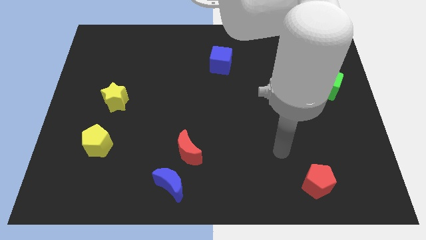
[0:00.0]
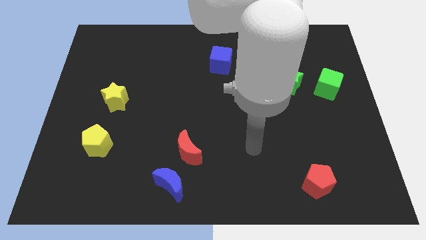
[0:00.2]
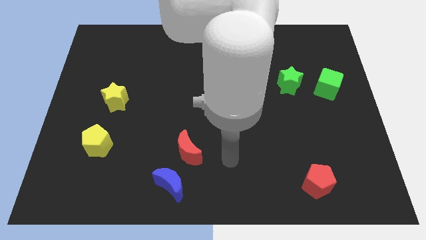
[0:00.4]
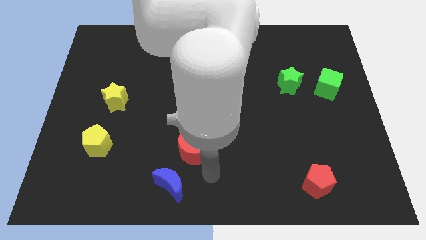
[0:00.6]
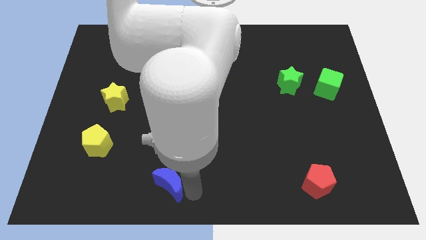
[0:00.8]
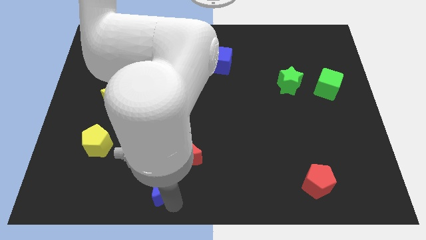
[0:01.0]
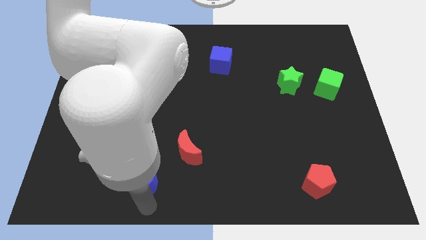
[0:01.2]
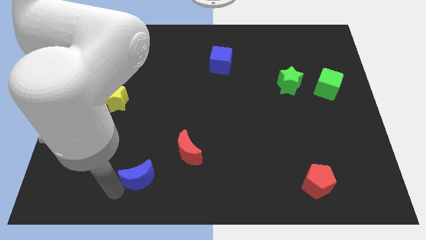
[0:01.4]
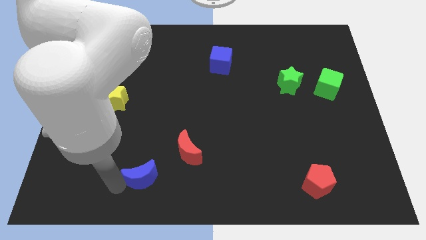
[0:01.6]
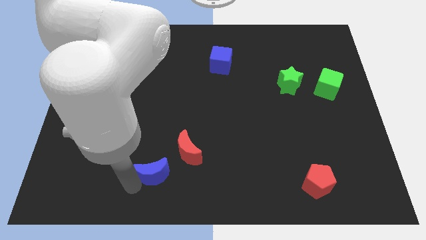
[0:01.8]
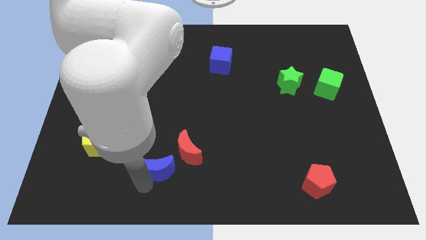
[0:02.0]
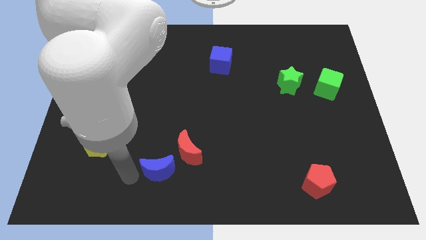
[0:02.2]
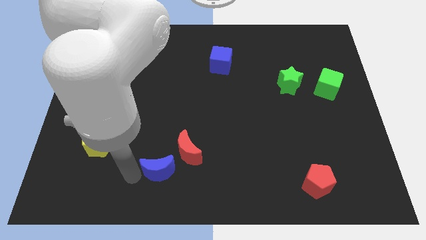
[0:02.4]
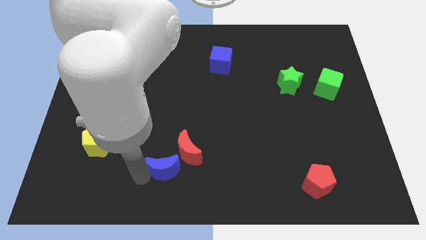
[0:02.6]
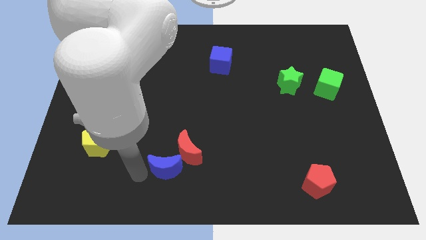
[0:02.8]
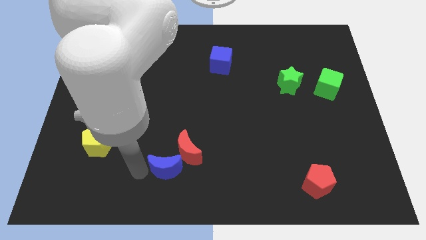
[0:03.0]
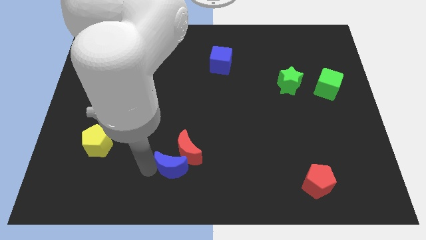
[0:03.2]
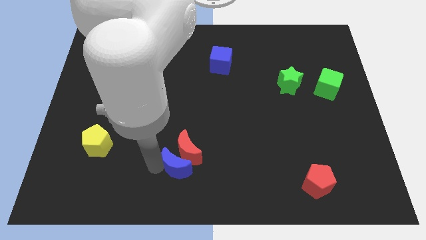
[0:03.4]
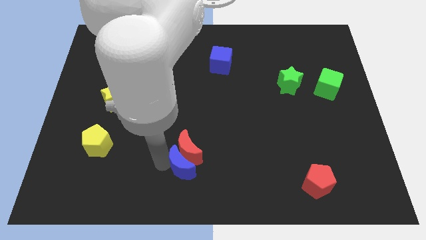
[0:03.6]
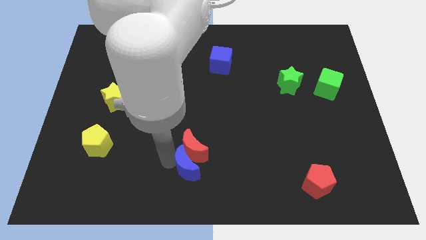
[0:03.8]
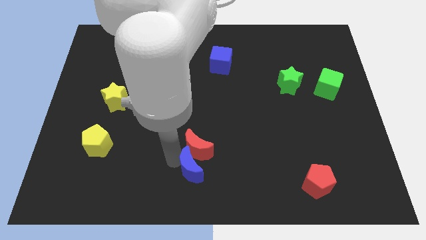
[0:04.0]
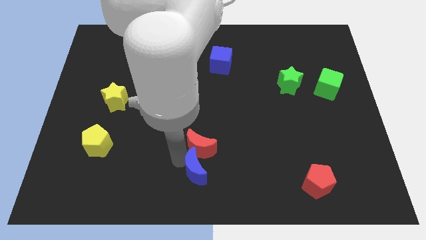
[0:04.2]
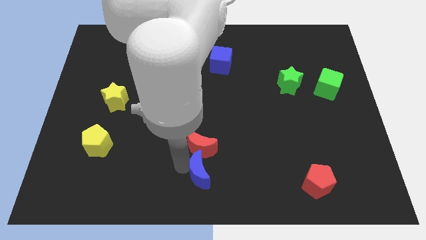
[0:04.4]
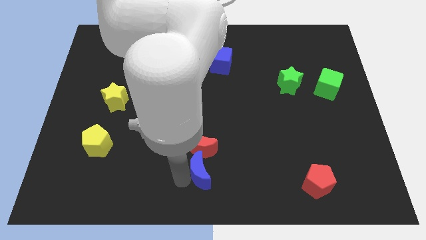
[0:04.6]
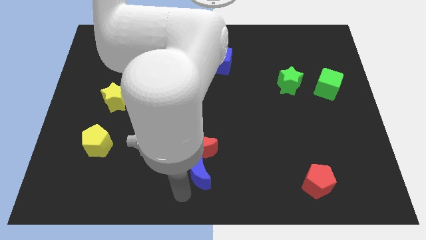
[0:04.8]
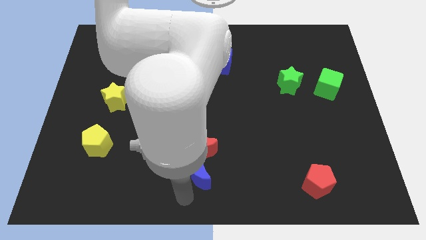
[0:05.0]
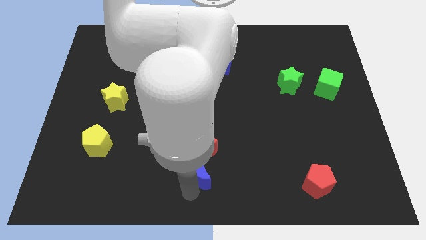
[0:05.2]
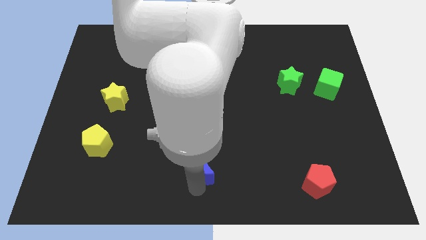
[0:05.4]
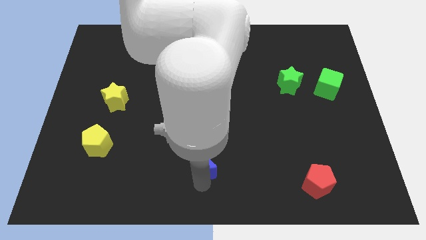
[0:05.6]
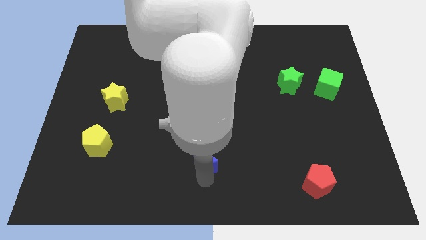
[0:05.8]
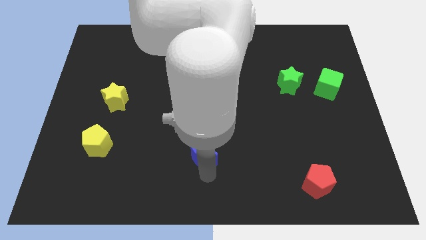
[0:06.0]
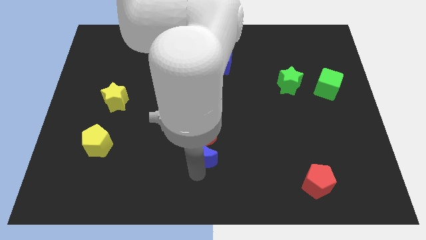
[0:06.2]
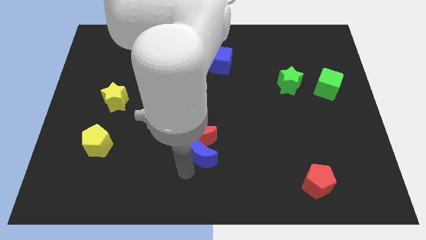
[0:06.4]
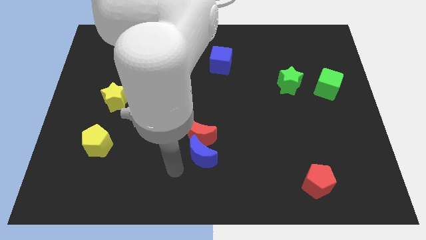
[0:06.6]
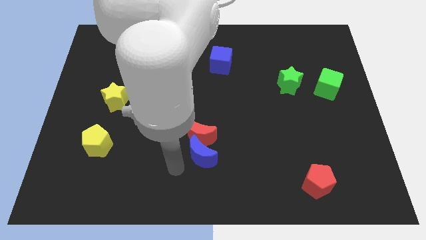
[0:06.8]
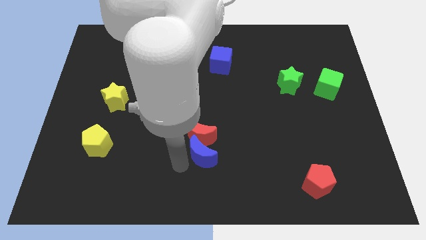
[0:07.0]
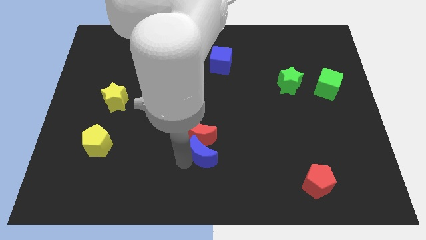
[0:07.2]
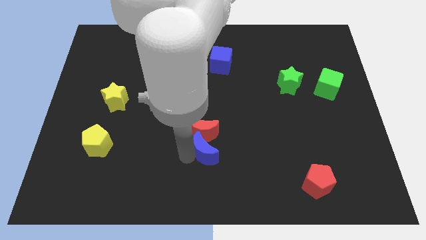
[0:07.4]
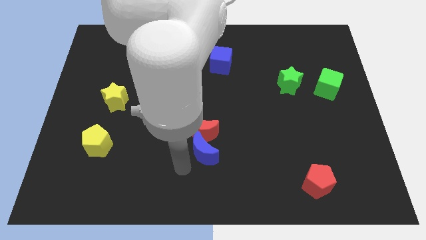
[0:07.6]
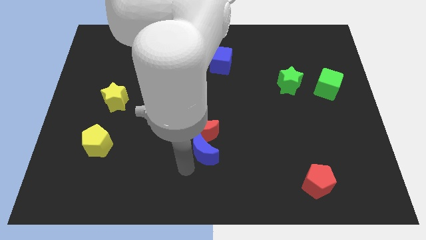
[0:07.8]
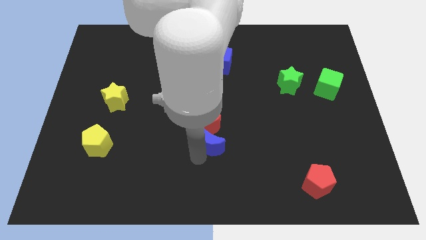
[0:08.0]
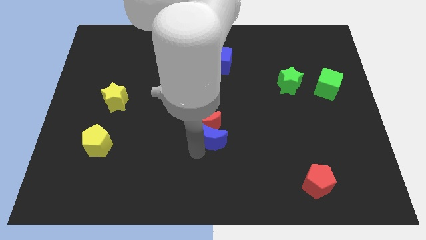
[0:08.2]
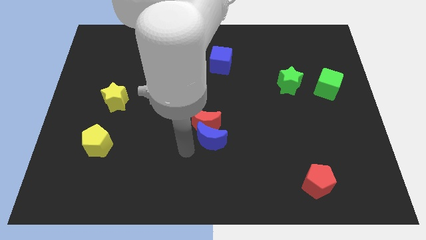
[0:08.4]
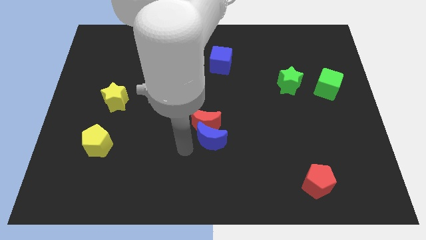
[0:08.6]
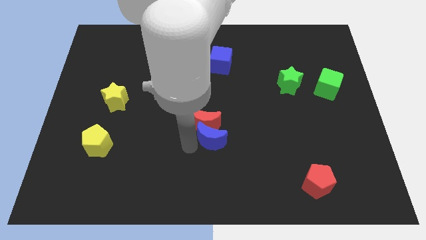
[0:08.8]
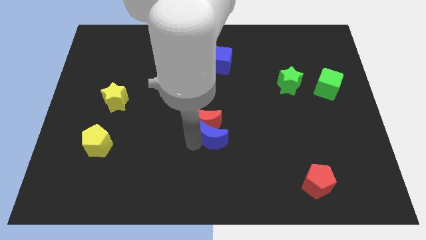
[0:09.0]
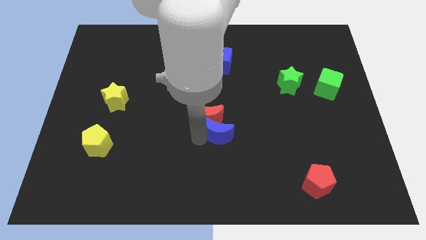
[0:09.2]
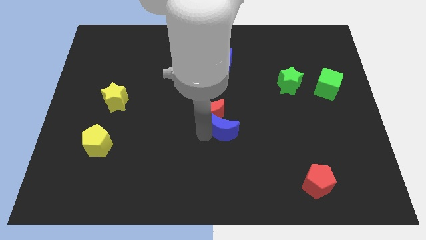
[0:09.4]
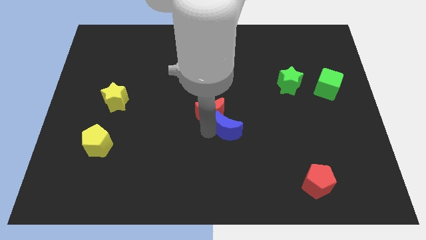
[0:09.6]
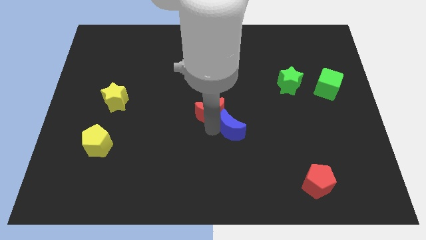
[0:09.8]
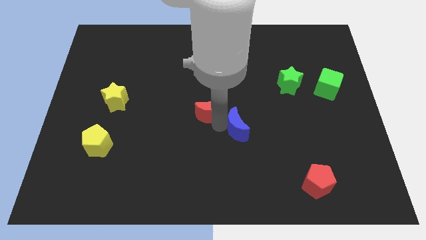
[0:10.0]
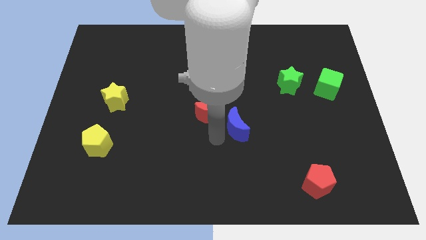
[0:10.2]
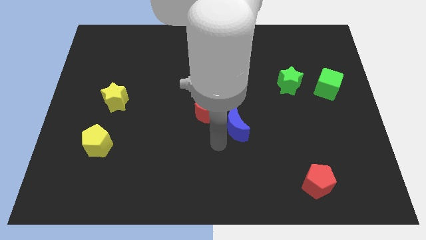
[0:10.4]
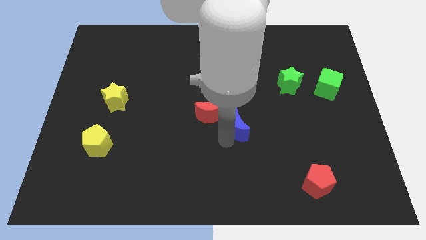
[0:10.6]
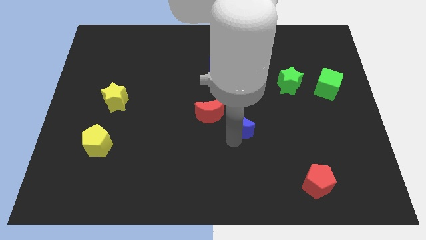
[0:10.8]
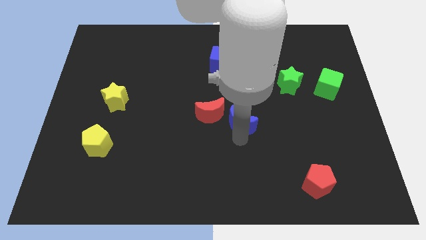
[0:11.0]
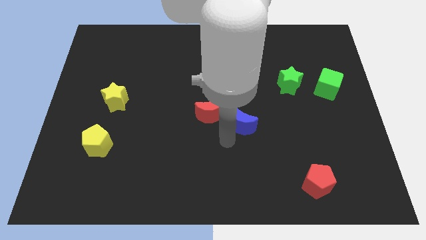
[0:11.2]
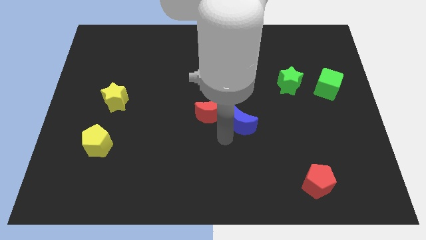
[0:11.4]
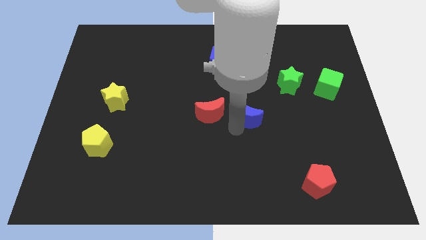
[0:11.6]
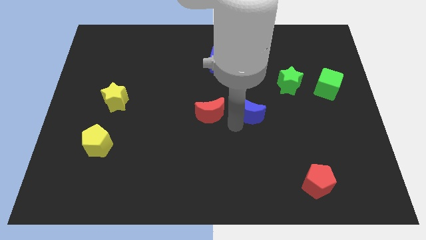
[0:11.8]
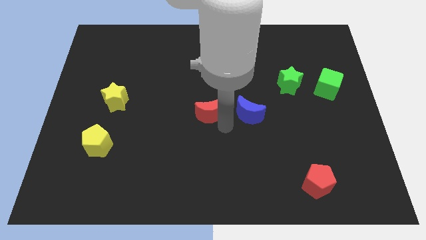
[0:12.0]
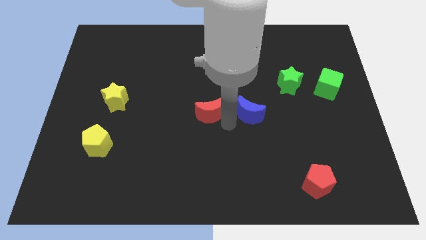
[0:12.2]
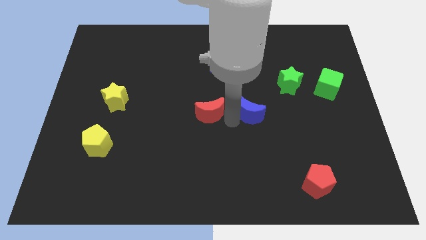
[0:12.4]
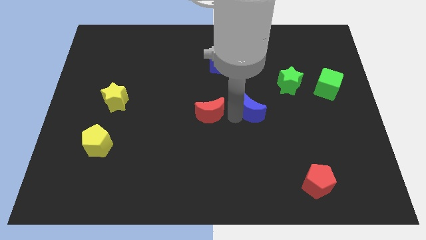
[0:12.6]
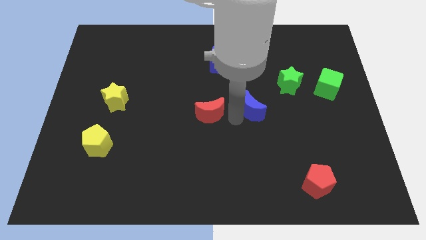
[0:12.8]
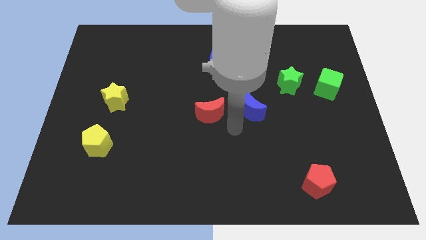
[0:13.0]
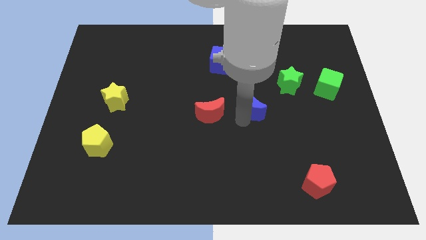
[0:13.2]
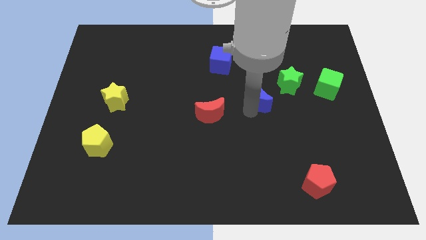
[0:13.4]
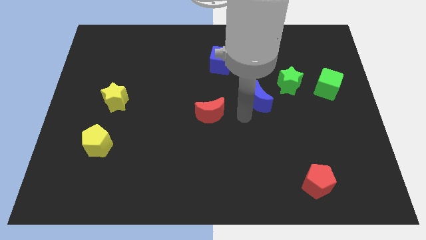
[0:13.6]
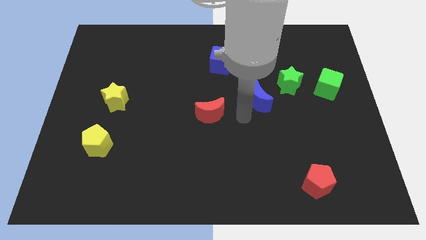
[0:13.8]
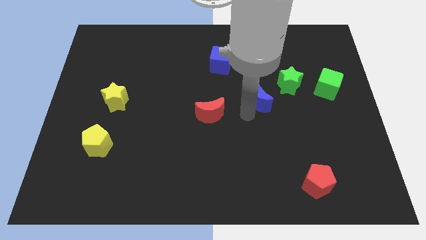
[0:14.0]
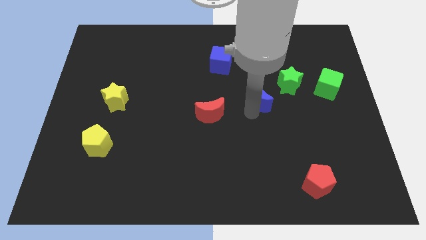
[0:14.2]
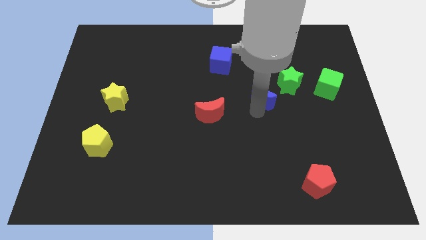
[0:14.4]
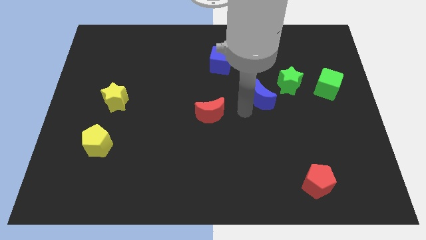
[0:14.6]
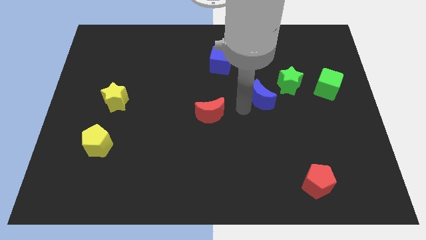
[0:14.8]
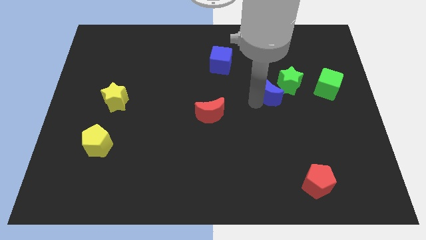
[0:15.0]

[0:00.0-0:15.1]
put the blue moon to the left of the green cube
